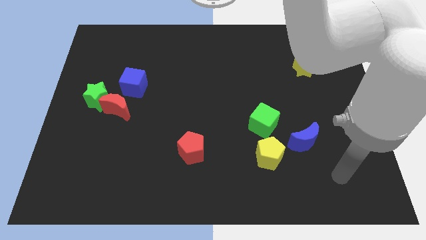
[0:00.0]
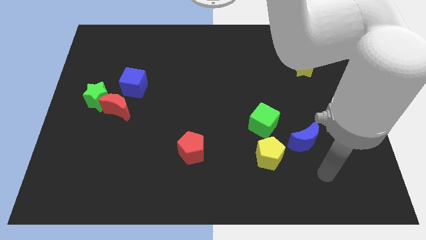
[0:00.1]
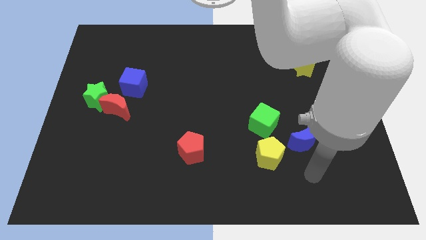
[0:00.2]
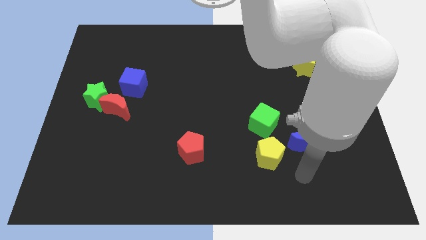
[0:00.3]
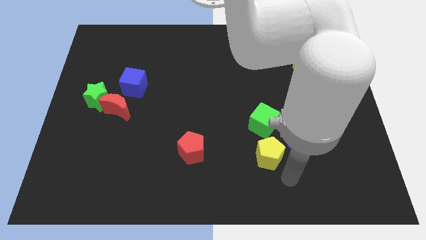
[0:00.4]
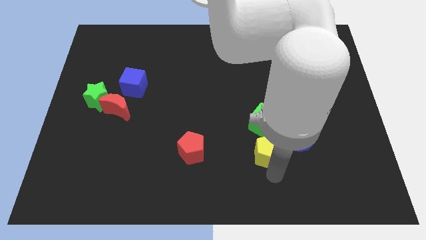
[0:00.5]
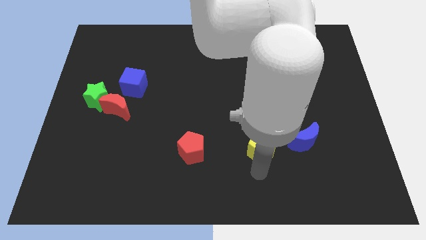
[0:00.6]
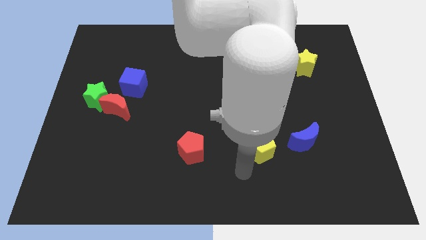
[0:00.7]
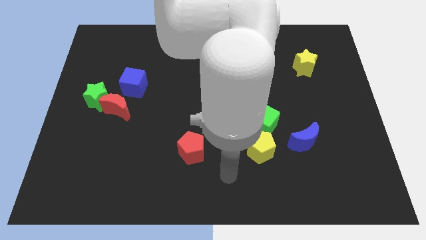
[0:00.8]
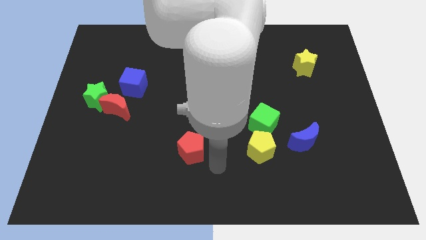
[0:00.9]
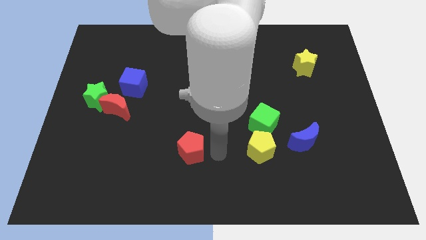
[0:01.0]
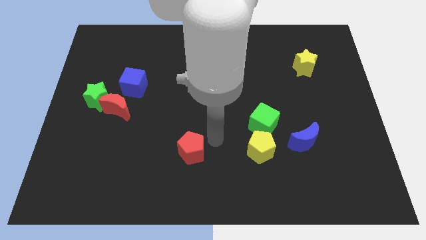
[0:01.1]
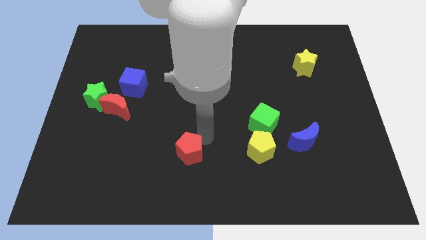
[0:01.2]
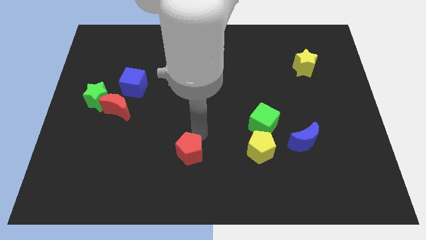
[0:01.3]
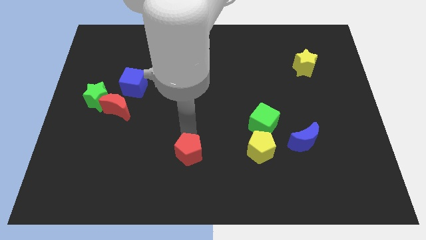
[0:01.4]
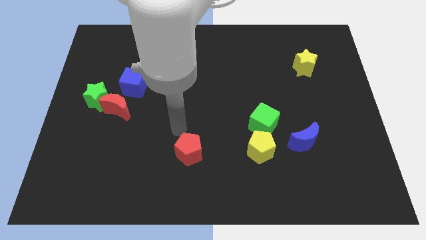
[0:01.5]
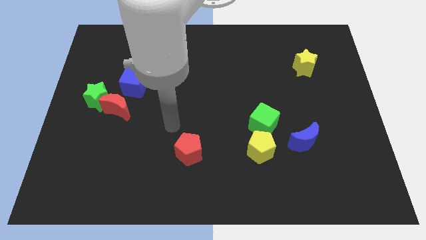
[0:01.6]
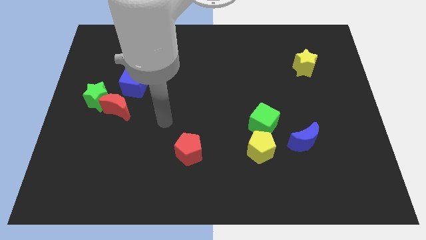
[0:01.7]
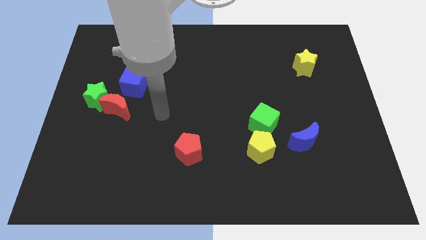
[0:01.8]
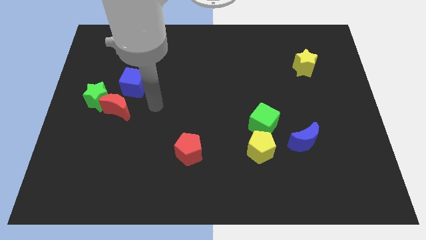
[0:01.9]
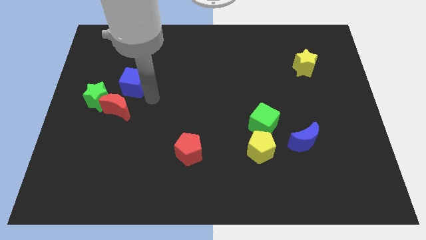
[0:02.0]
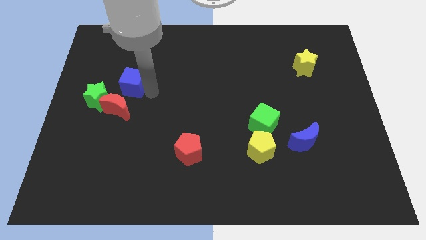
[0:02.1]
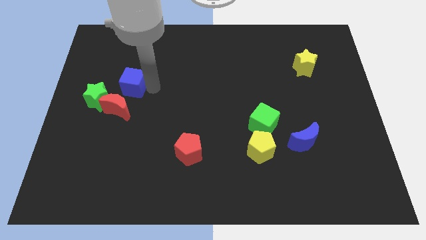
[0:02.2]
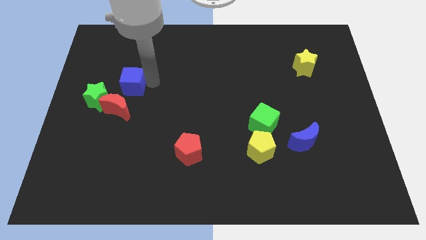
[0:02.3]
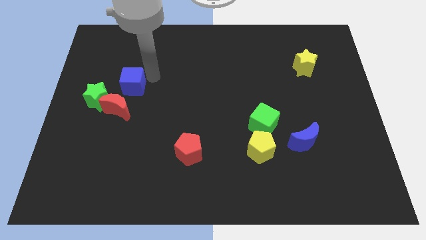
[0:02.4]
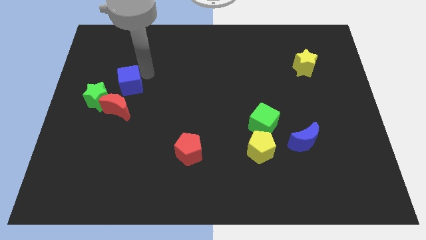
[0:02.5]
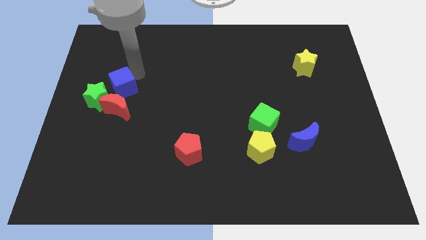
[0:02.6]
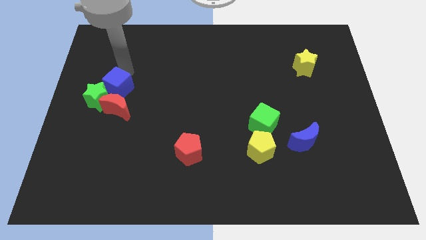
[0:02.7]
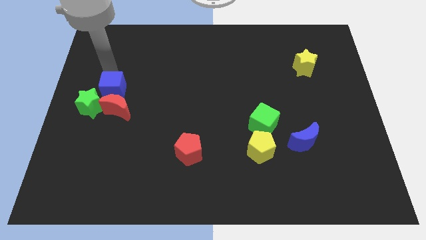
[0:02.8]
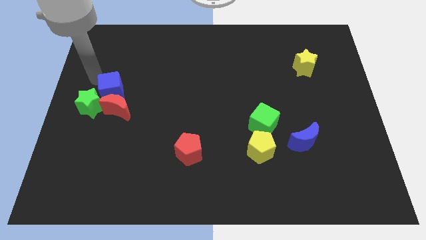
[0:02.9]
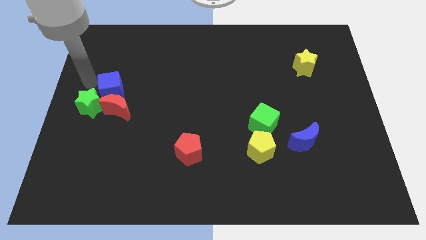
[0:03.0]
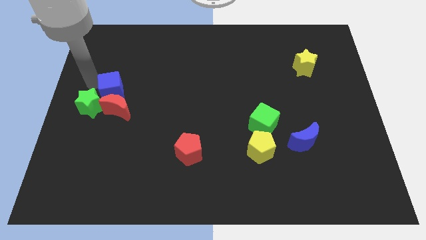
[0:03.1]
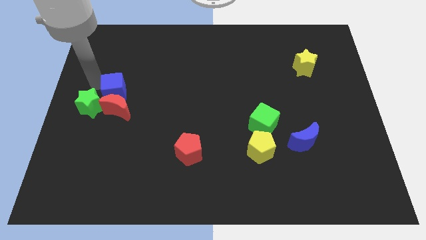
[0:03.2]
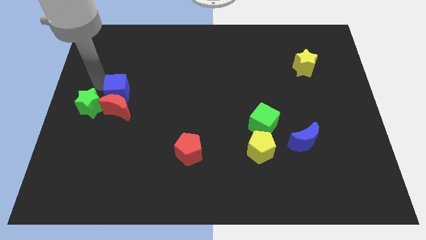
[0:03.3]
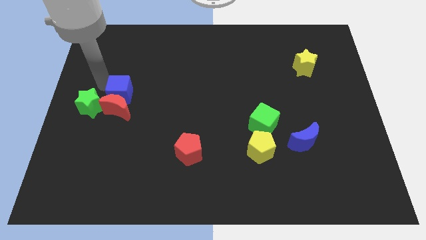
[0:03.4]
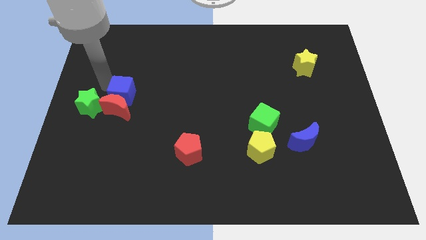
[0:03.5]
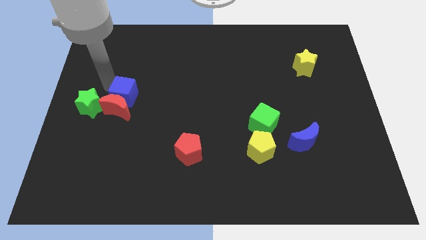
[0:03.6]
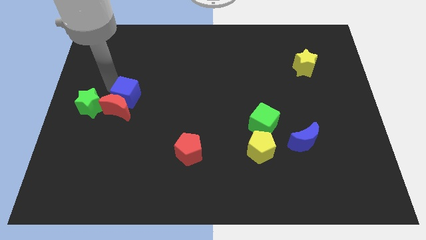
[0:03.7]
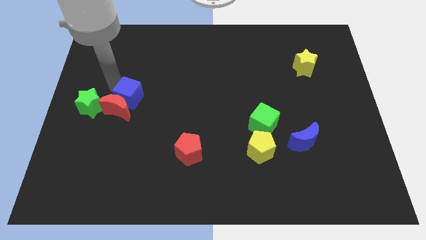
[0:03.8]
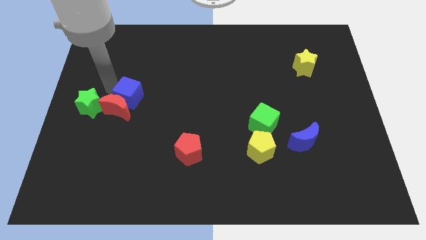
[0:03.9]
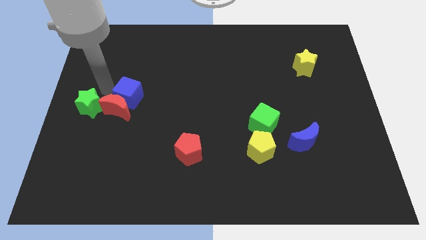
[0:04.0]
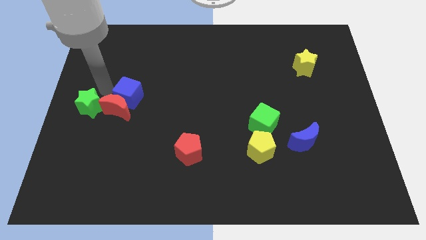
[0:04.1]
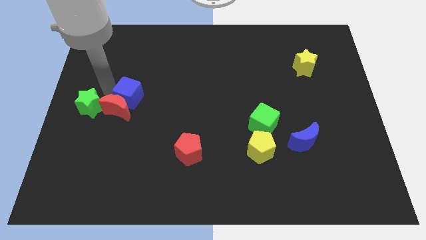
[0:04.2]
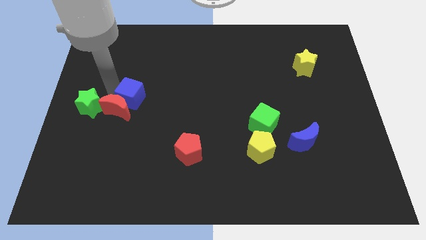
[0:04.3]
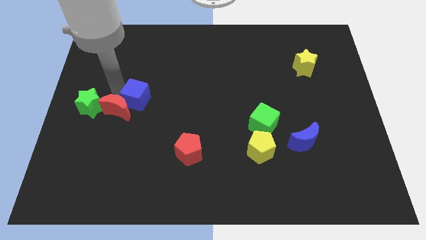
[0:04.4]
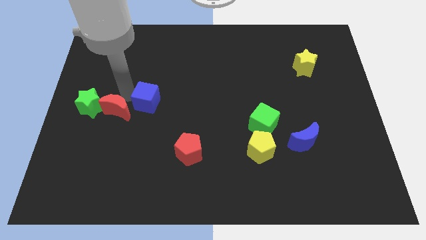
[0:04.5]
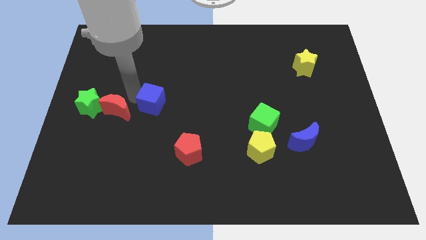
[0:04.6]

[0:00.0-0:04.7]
slightly slide the blue cube down and then right

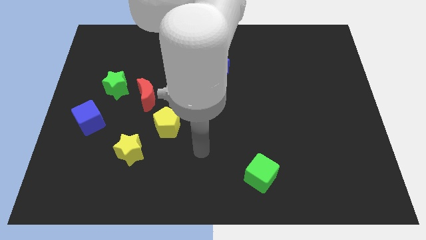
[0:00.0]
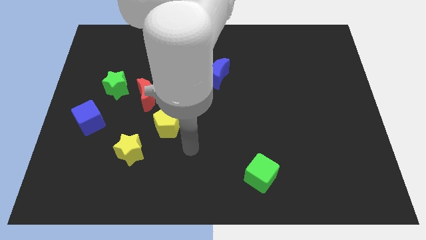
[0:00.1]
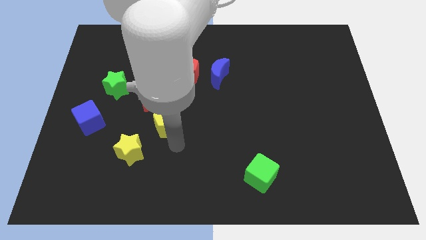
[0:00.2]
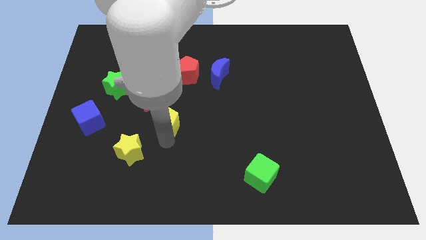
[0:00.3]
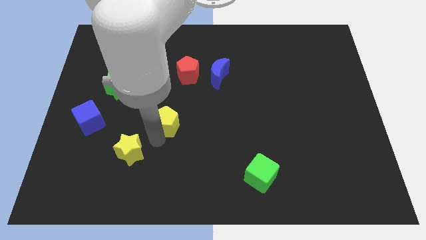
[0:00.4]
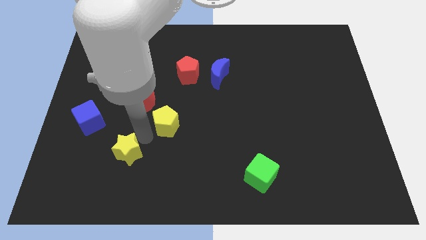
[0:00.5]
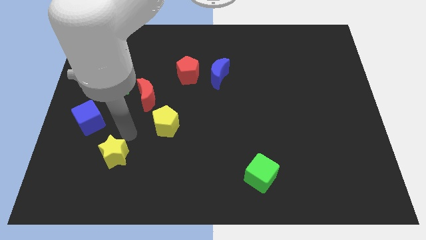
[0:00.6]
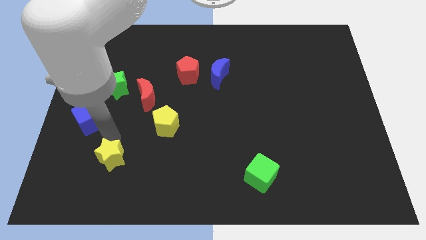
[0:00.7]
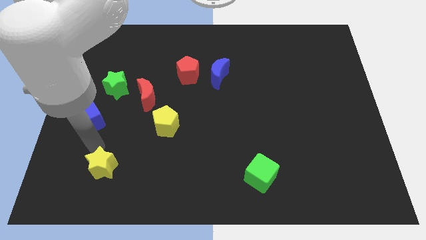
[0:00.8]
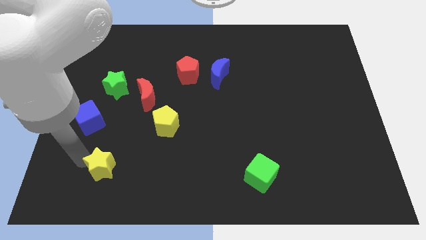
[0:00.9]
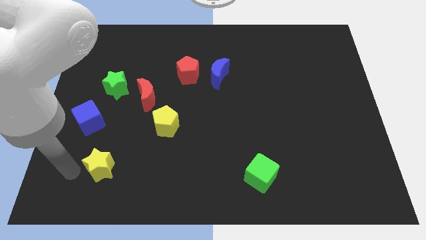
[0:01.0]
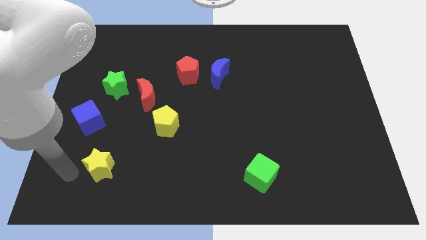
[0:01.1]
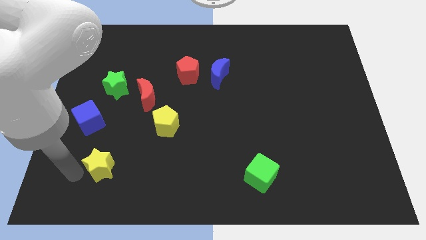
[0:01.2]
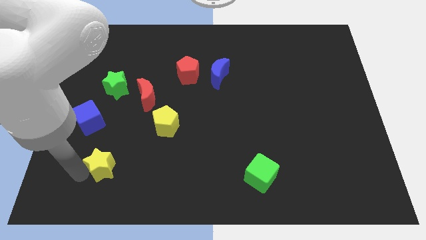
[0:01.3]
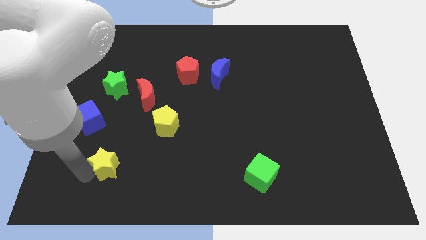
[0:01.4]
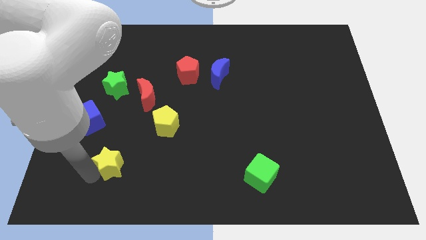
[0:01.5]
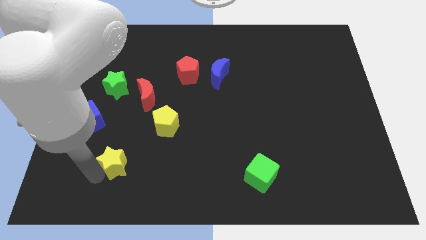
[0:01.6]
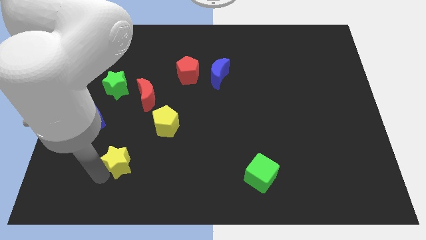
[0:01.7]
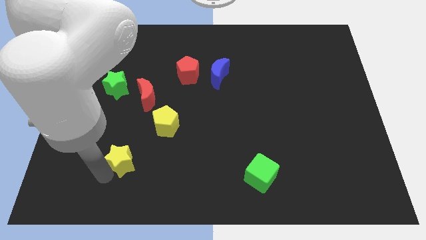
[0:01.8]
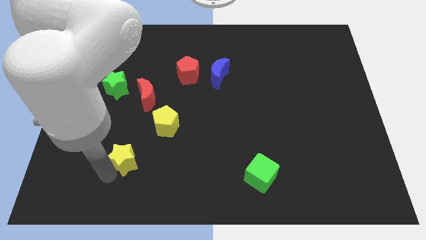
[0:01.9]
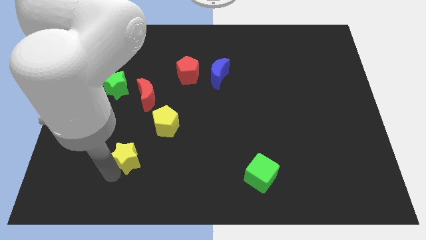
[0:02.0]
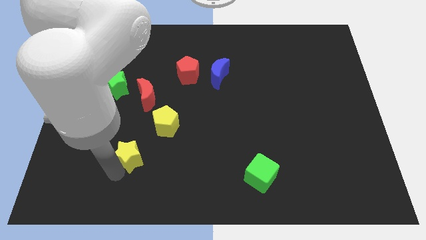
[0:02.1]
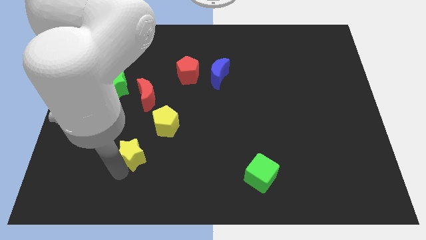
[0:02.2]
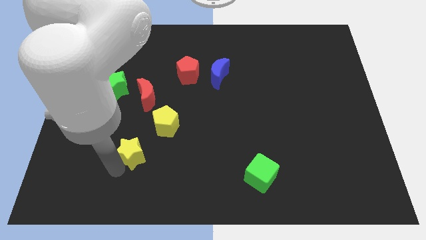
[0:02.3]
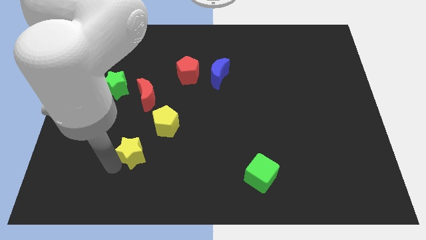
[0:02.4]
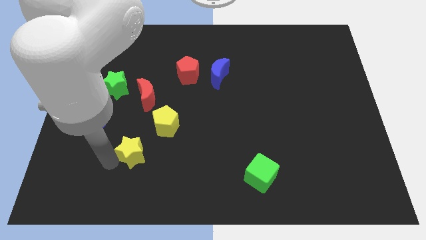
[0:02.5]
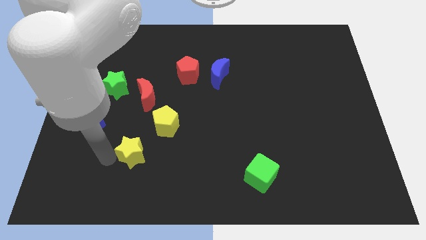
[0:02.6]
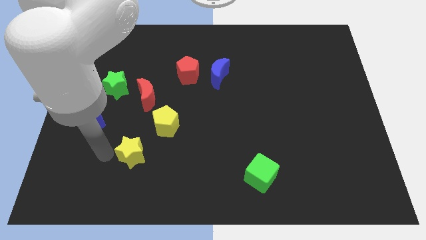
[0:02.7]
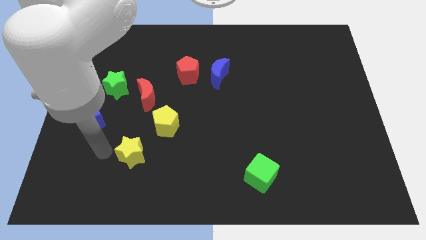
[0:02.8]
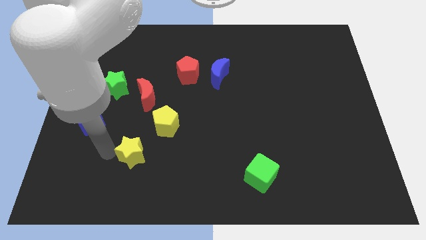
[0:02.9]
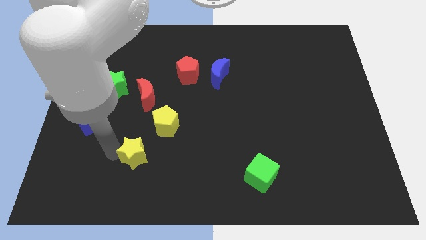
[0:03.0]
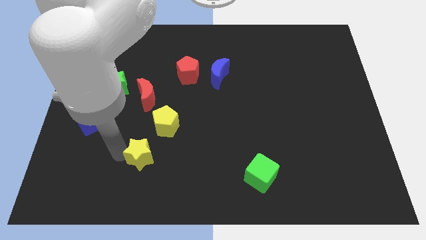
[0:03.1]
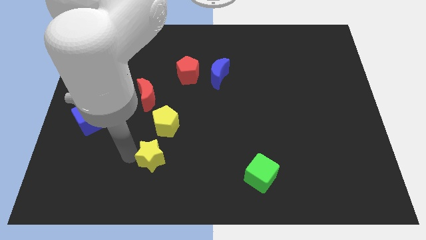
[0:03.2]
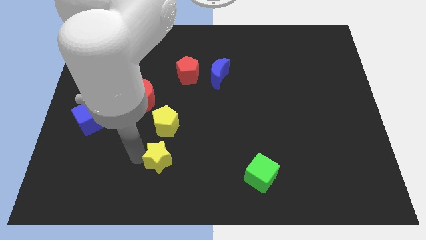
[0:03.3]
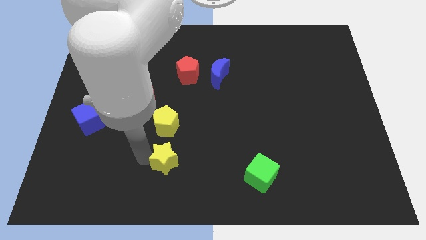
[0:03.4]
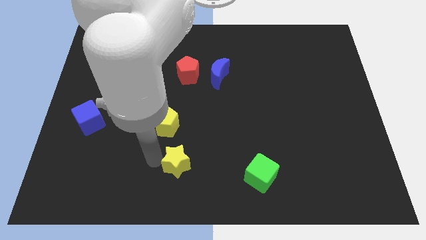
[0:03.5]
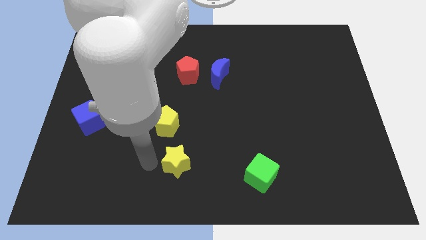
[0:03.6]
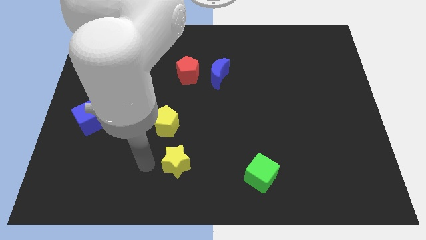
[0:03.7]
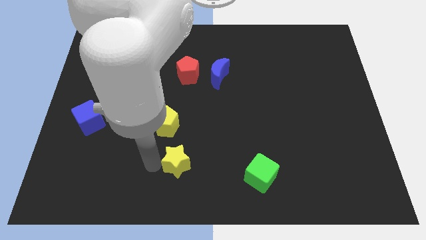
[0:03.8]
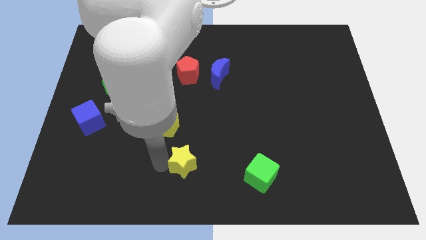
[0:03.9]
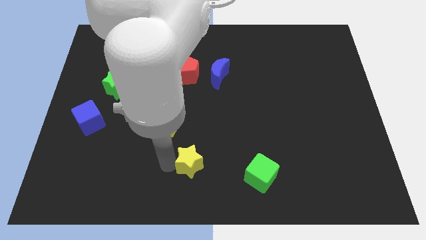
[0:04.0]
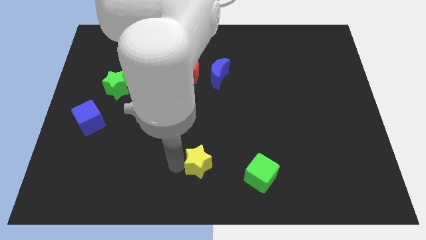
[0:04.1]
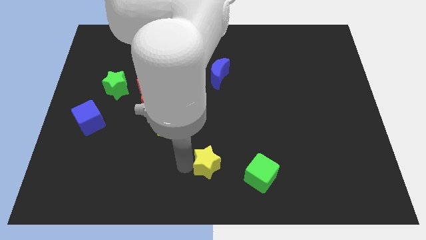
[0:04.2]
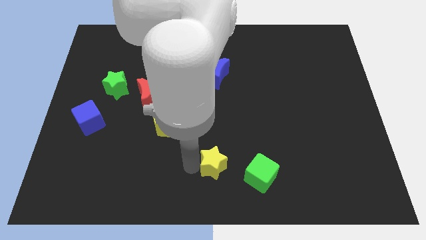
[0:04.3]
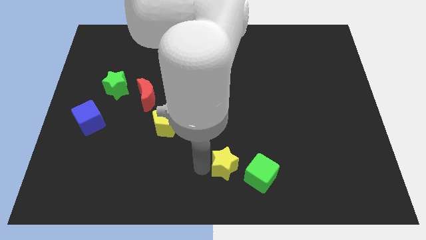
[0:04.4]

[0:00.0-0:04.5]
slide the yellow star right
